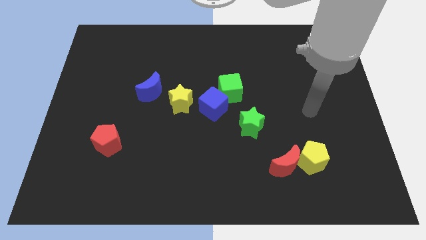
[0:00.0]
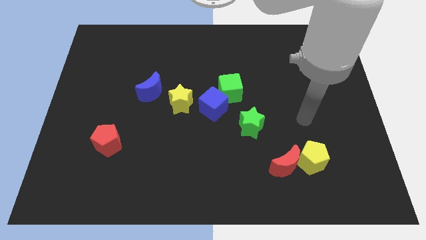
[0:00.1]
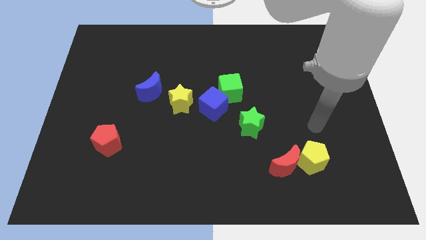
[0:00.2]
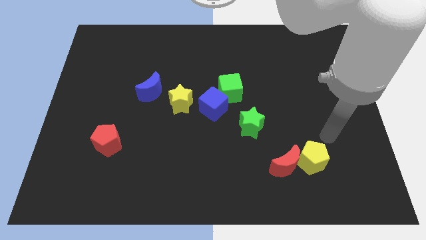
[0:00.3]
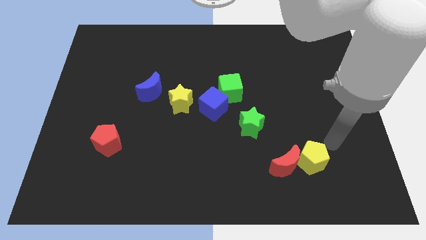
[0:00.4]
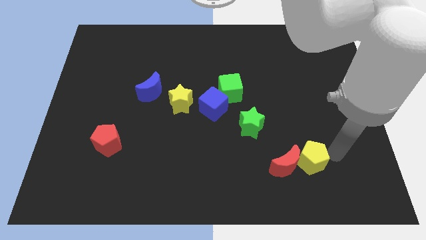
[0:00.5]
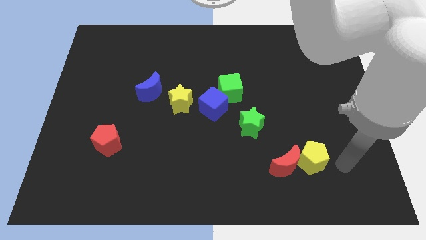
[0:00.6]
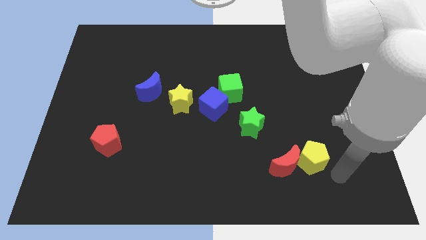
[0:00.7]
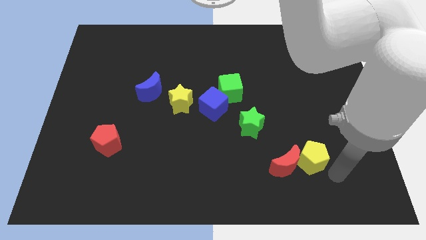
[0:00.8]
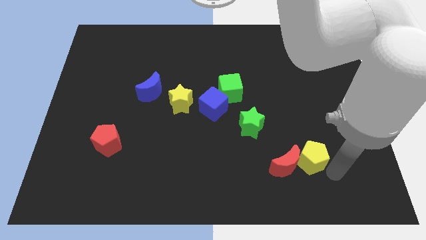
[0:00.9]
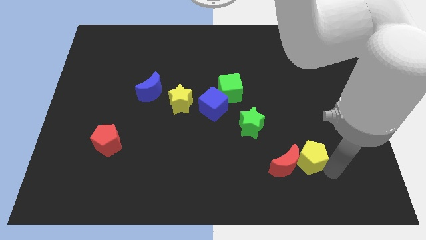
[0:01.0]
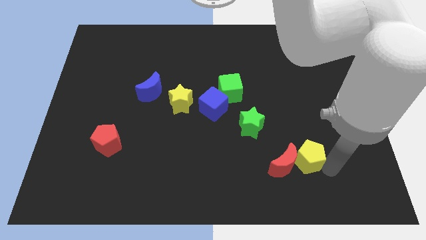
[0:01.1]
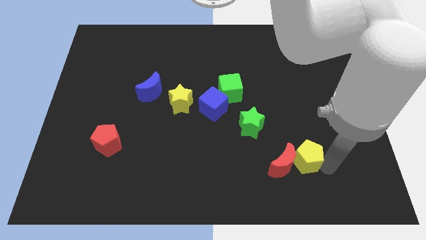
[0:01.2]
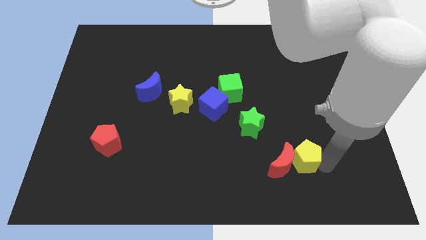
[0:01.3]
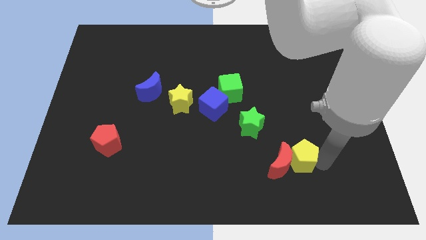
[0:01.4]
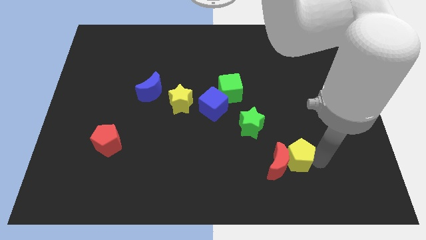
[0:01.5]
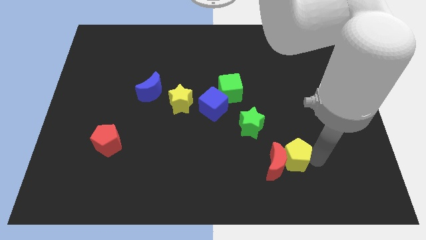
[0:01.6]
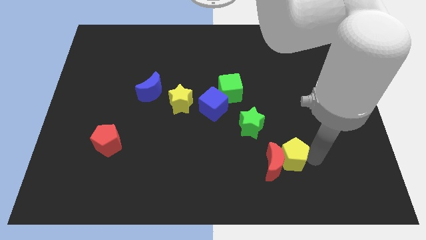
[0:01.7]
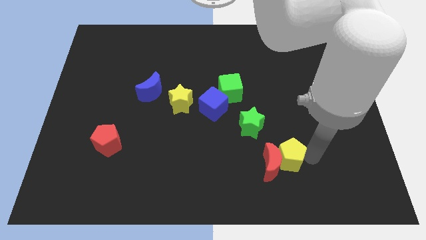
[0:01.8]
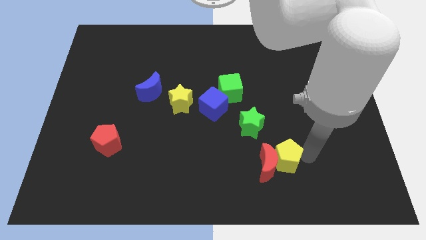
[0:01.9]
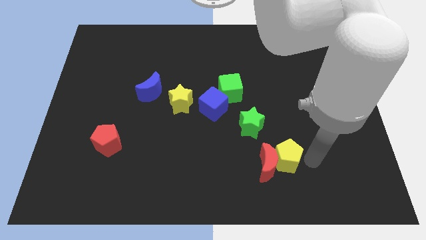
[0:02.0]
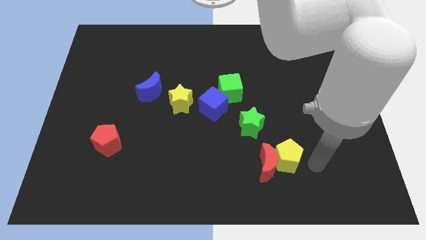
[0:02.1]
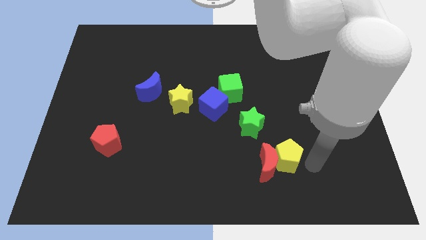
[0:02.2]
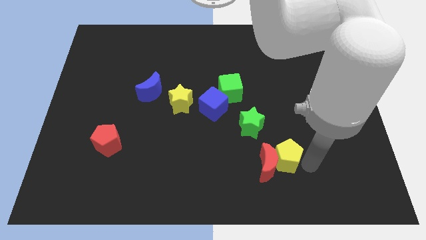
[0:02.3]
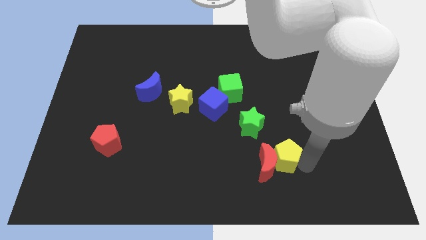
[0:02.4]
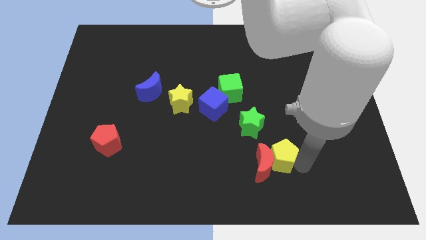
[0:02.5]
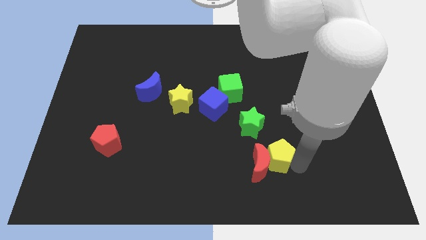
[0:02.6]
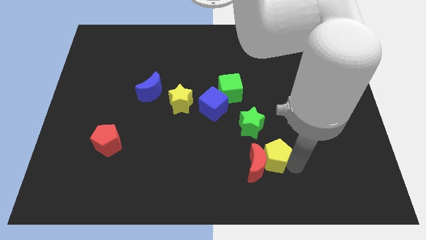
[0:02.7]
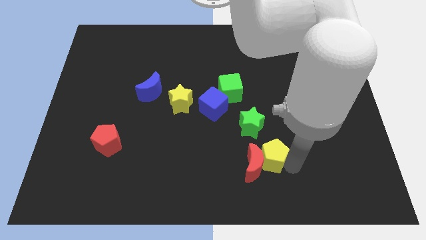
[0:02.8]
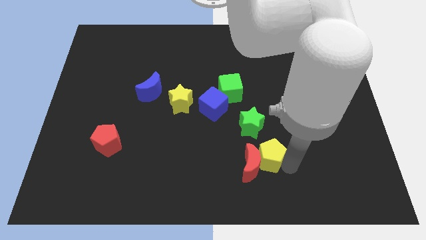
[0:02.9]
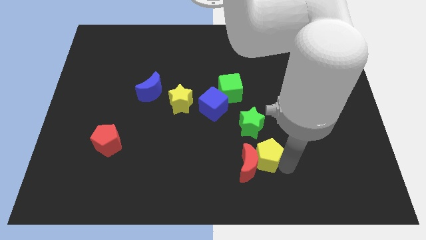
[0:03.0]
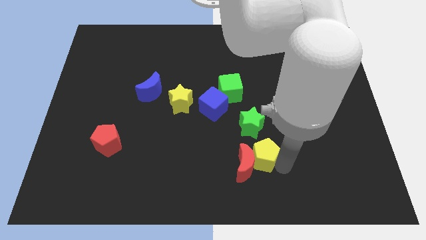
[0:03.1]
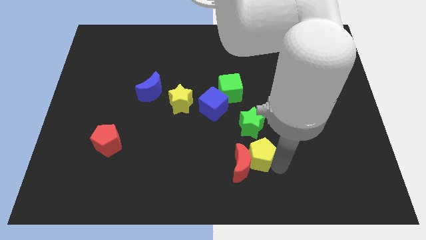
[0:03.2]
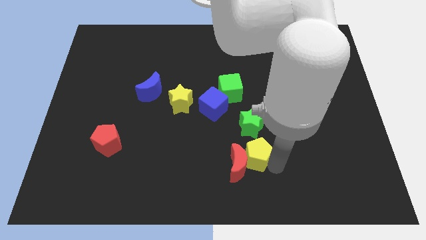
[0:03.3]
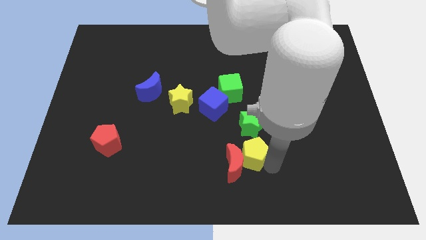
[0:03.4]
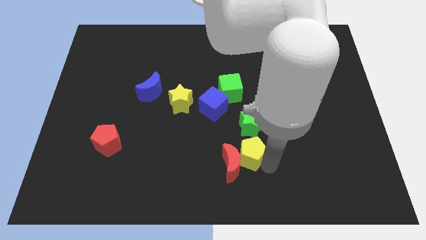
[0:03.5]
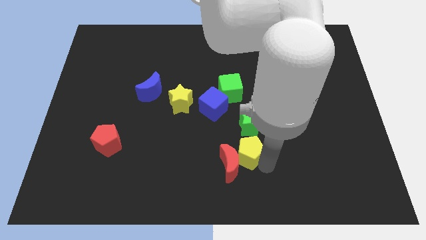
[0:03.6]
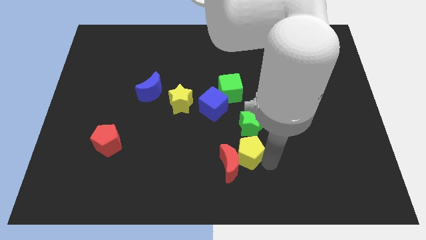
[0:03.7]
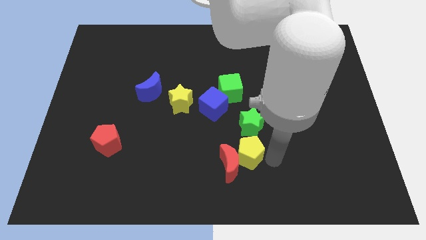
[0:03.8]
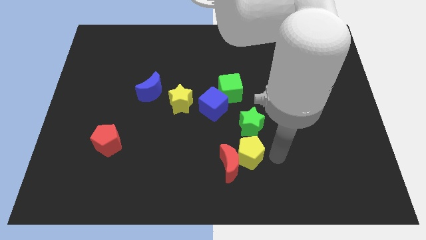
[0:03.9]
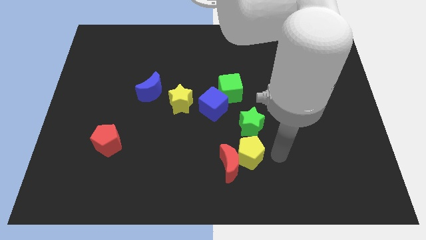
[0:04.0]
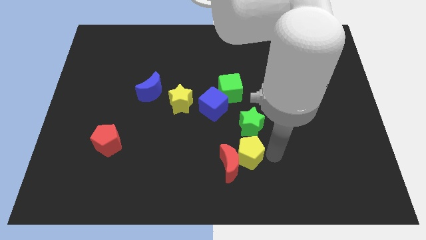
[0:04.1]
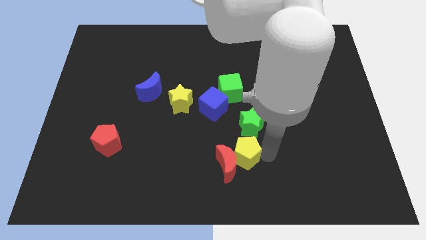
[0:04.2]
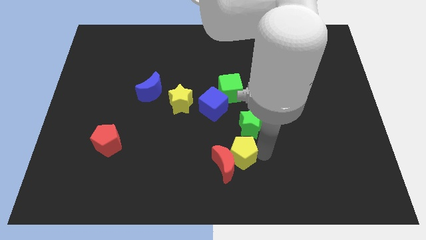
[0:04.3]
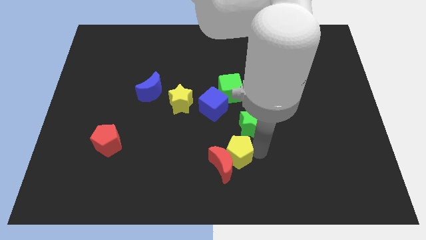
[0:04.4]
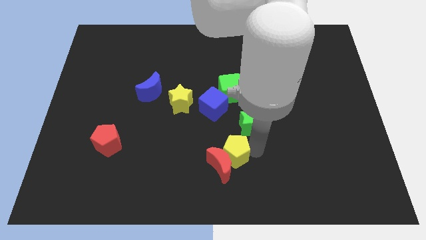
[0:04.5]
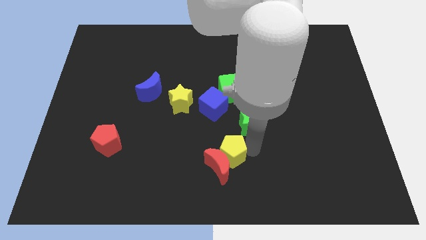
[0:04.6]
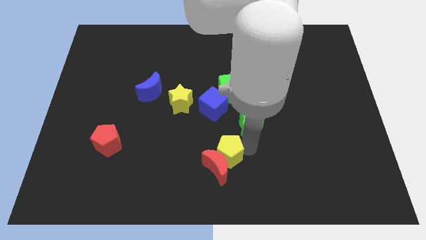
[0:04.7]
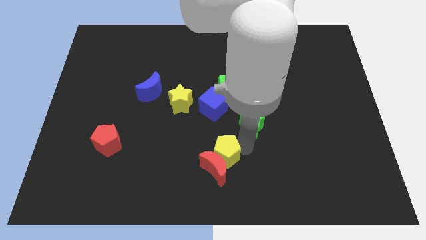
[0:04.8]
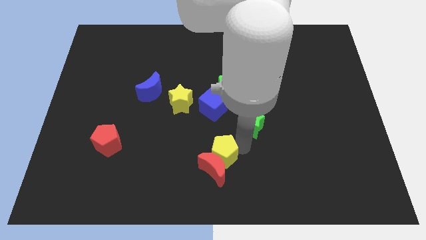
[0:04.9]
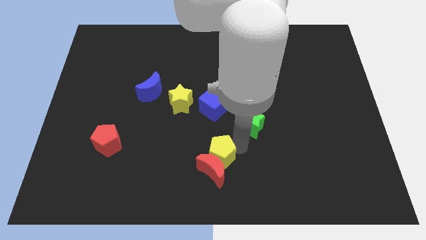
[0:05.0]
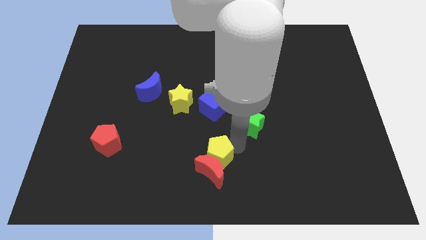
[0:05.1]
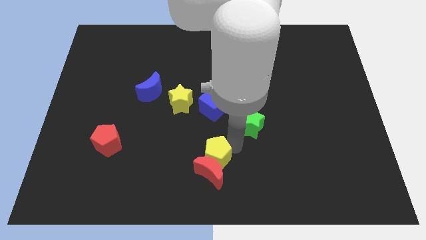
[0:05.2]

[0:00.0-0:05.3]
push the yellow pentagon to the left

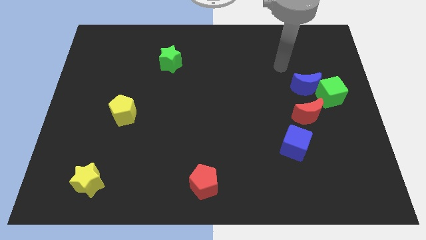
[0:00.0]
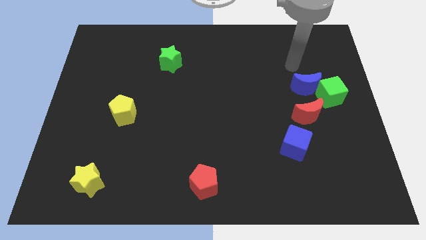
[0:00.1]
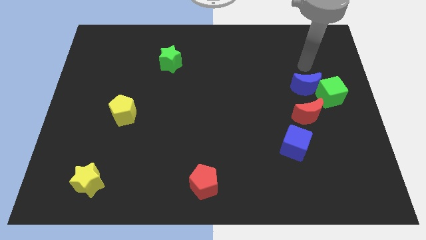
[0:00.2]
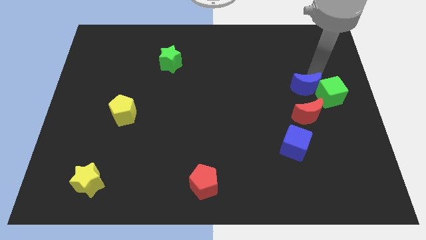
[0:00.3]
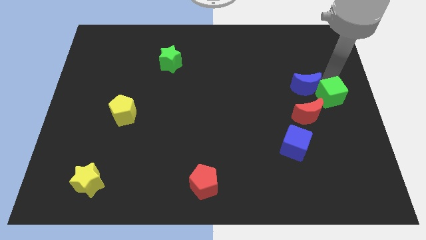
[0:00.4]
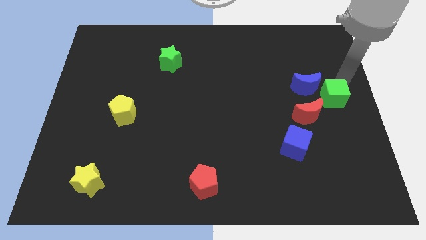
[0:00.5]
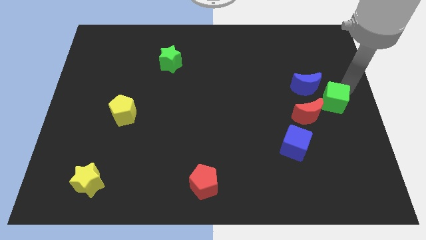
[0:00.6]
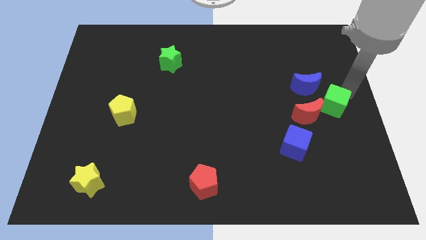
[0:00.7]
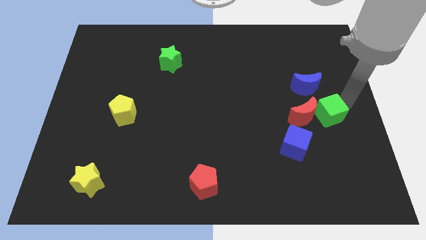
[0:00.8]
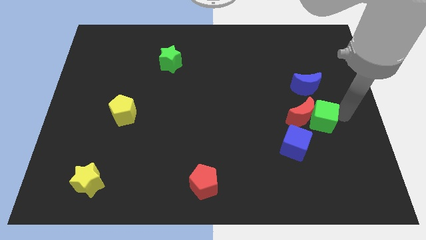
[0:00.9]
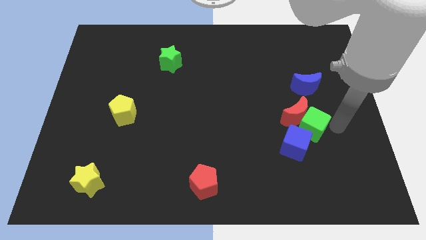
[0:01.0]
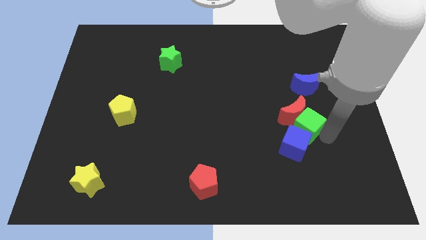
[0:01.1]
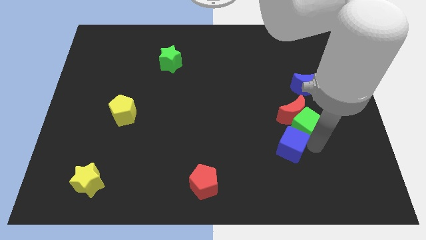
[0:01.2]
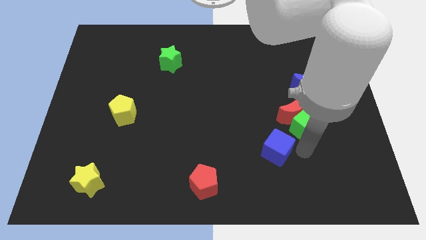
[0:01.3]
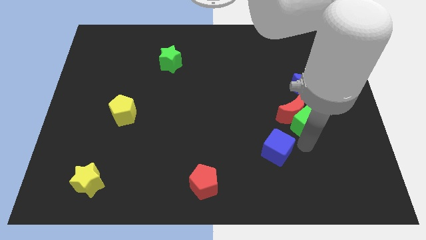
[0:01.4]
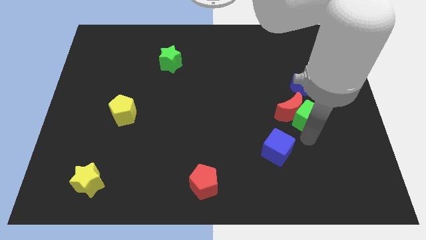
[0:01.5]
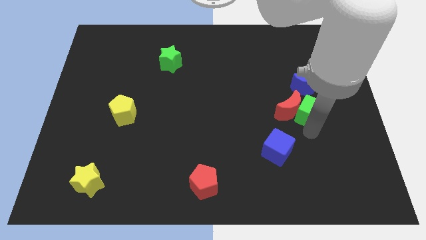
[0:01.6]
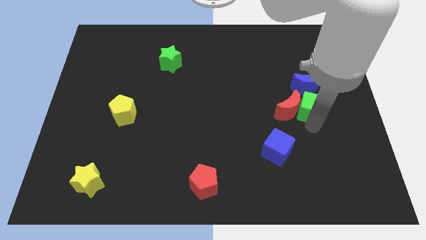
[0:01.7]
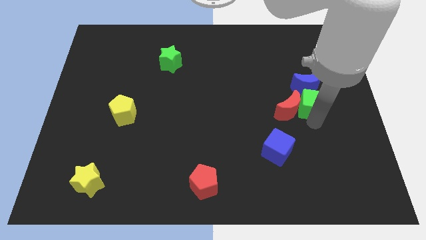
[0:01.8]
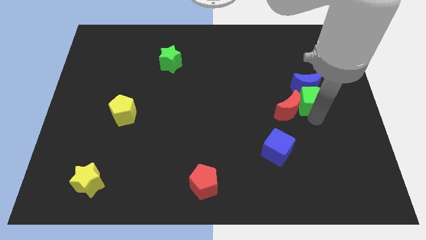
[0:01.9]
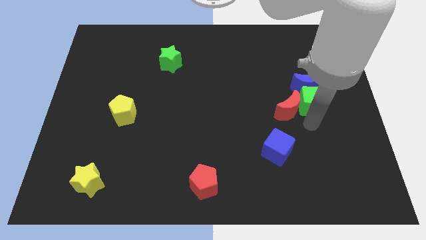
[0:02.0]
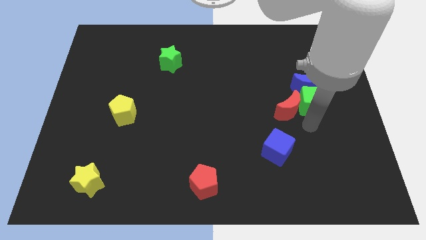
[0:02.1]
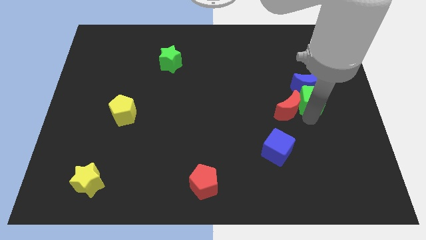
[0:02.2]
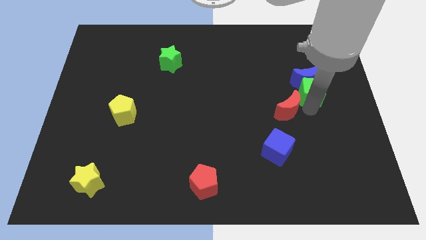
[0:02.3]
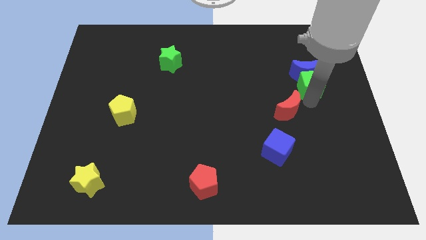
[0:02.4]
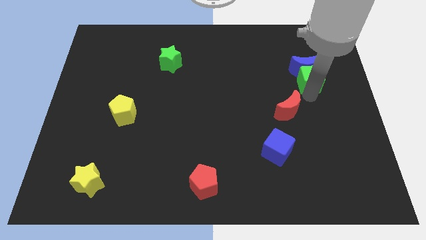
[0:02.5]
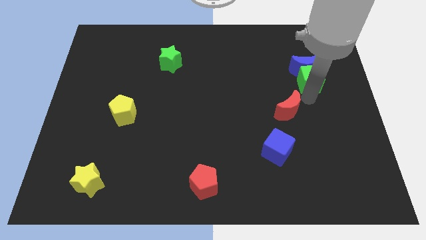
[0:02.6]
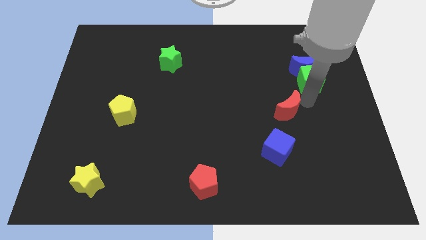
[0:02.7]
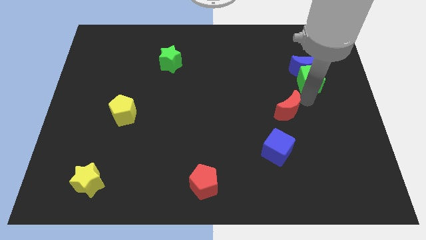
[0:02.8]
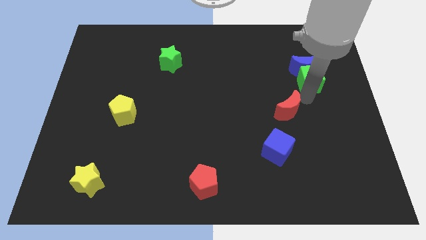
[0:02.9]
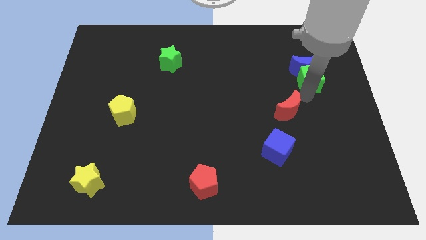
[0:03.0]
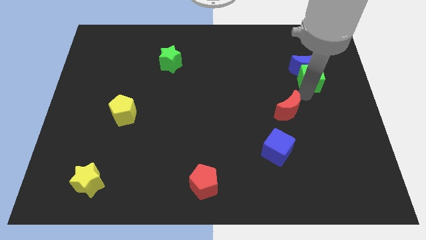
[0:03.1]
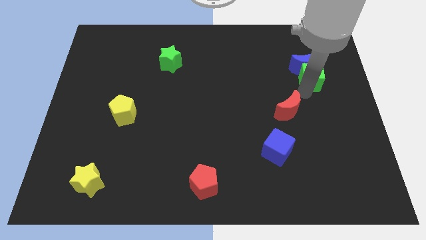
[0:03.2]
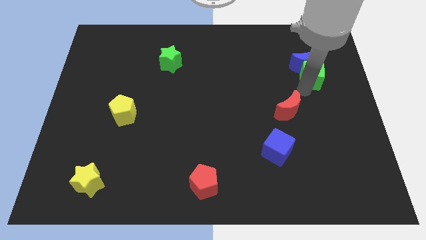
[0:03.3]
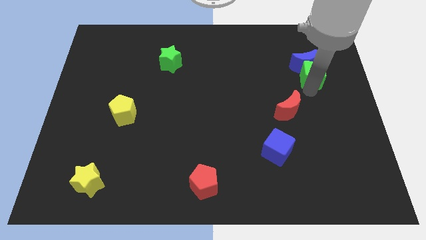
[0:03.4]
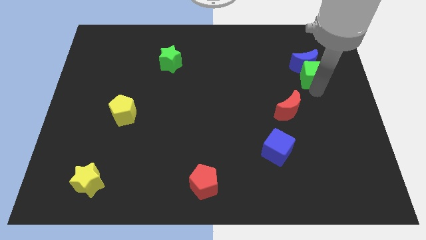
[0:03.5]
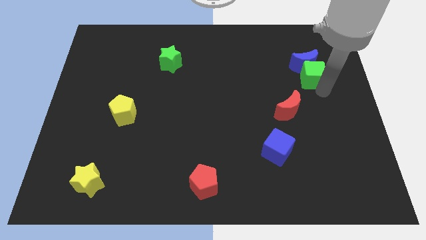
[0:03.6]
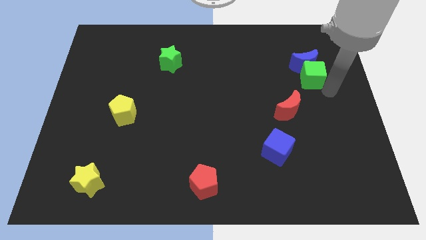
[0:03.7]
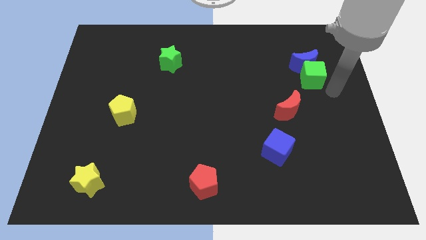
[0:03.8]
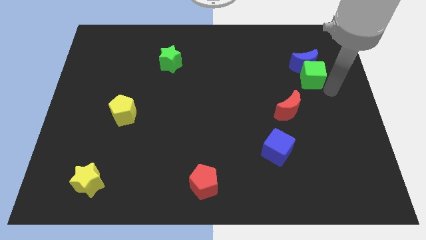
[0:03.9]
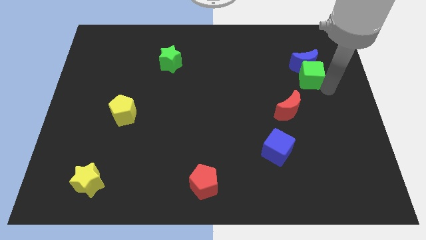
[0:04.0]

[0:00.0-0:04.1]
push the green cube diagonally upwards and left a little bit
